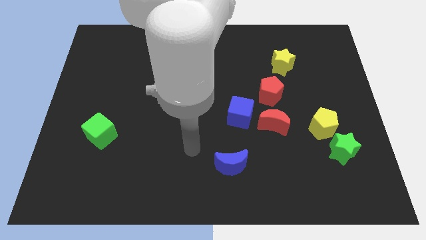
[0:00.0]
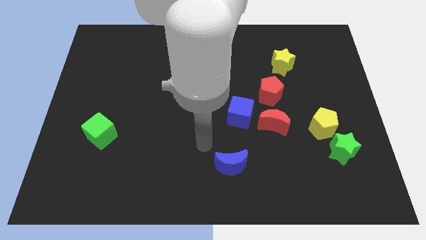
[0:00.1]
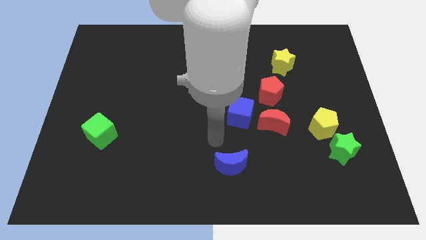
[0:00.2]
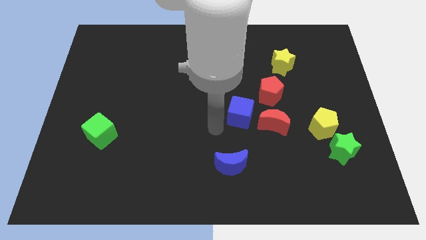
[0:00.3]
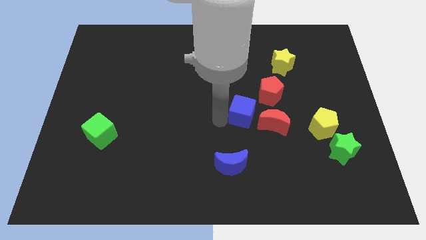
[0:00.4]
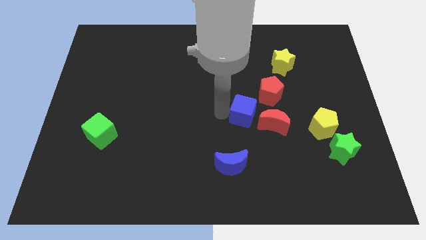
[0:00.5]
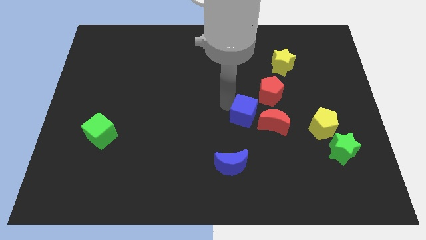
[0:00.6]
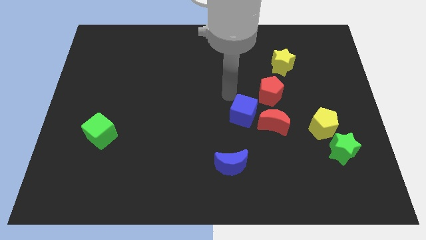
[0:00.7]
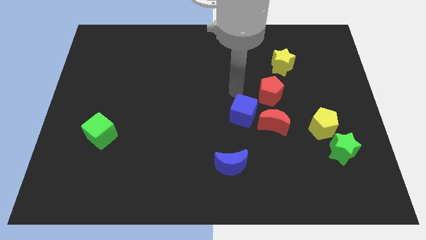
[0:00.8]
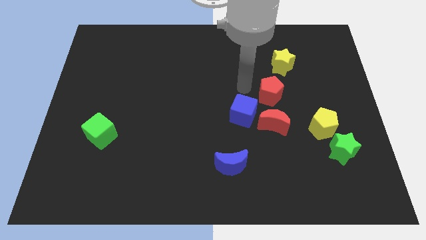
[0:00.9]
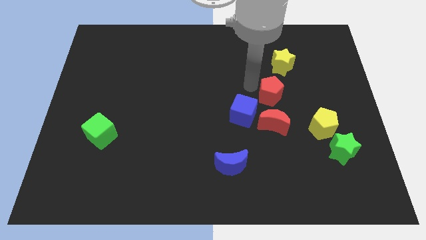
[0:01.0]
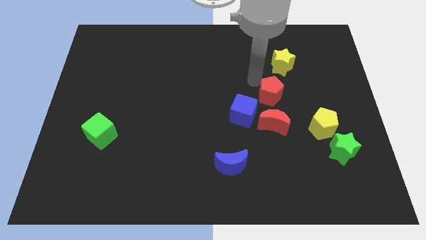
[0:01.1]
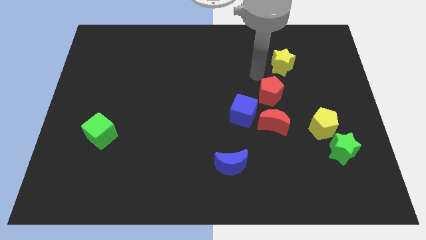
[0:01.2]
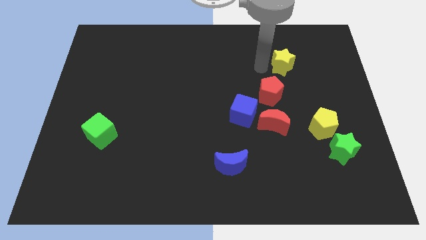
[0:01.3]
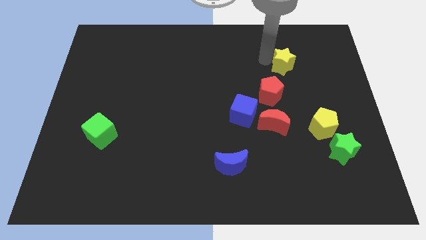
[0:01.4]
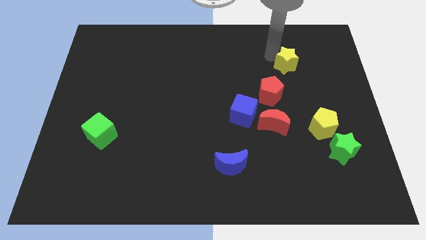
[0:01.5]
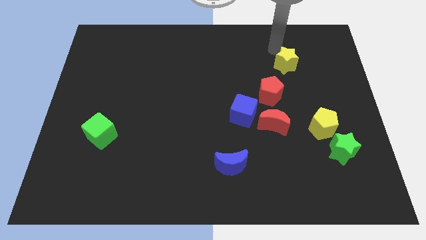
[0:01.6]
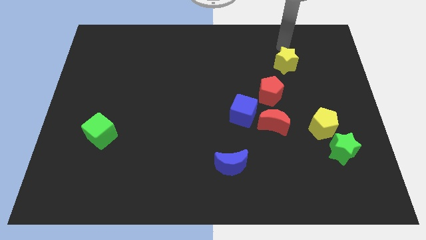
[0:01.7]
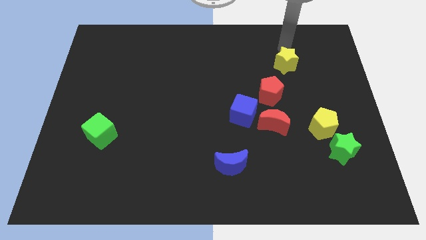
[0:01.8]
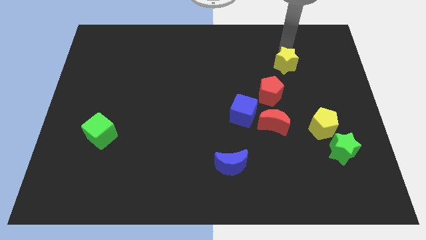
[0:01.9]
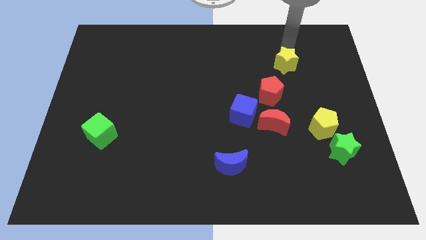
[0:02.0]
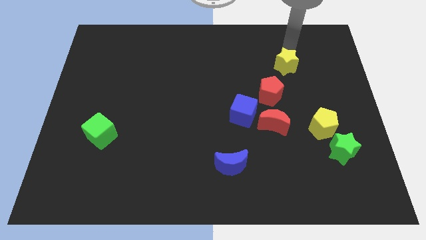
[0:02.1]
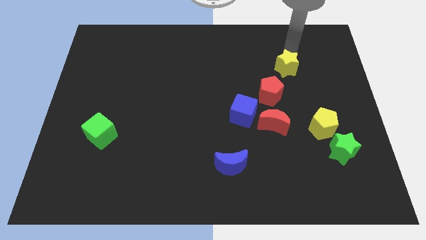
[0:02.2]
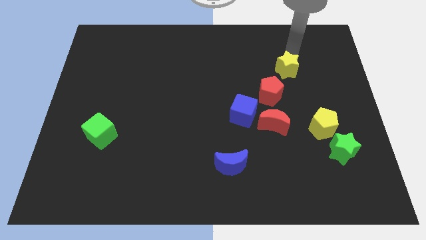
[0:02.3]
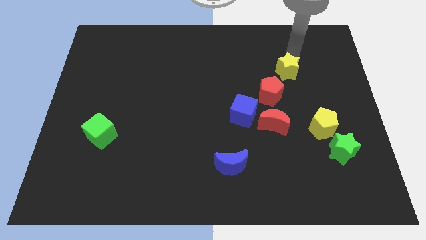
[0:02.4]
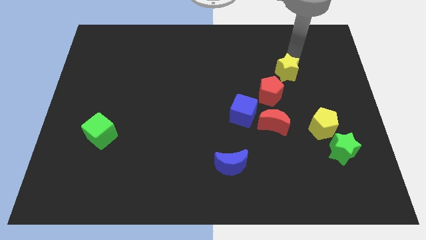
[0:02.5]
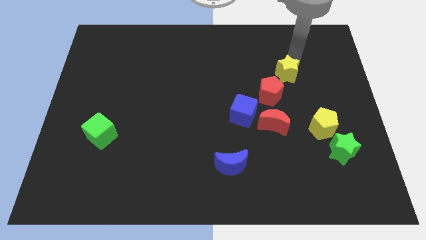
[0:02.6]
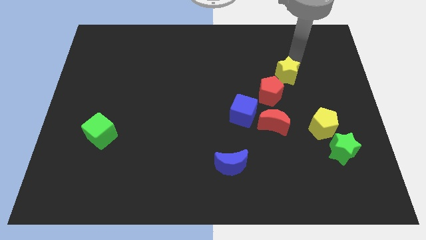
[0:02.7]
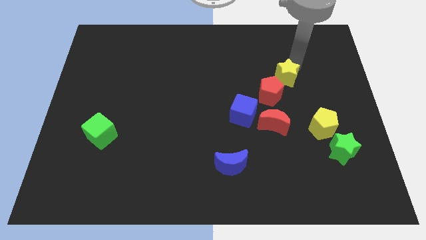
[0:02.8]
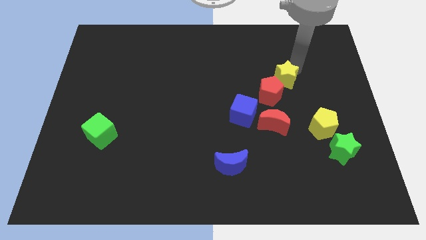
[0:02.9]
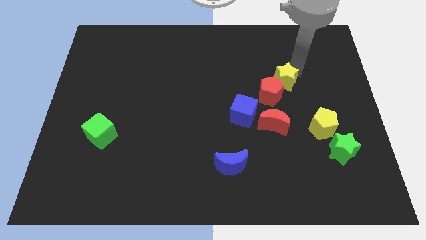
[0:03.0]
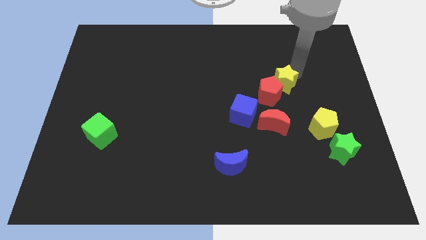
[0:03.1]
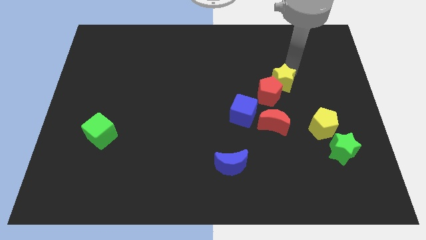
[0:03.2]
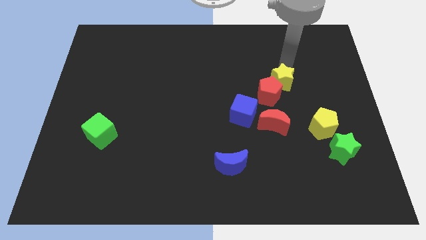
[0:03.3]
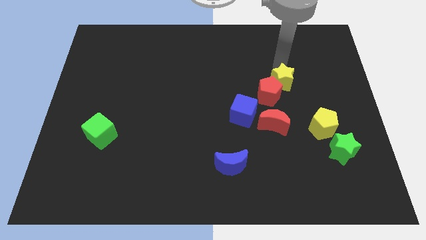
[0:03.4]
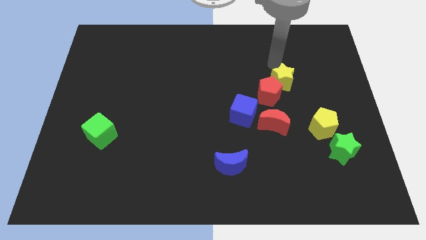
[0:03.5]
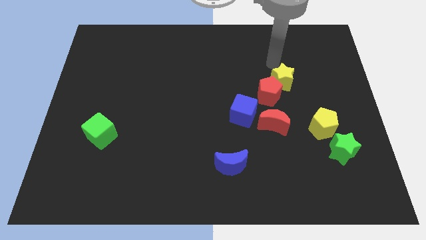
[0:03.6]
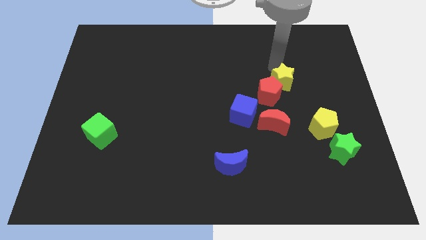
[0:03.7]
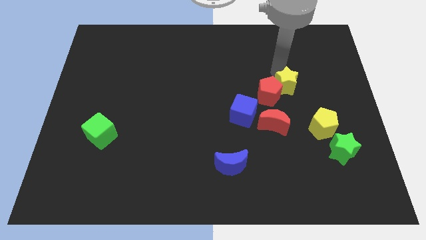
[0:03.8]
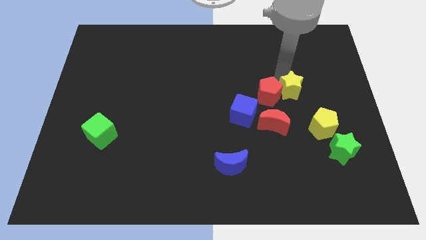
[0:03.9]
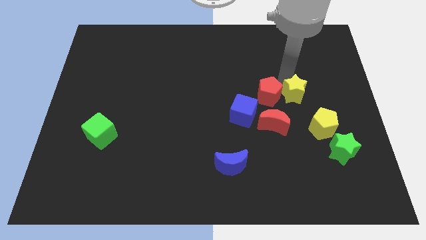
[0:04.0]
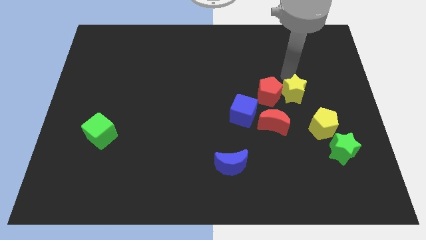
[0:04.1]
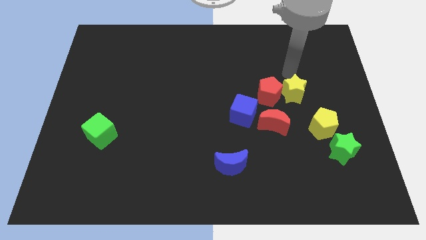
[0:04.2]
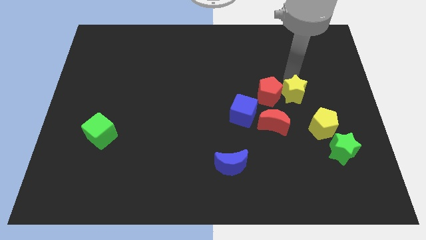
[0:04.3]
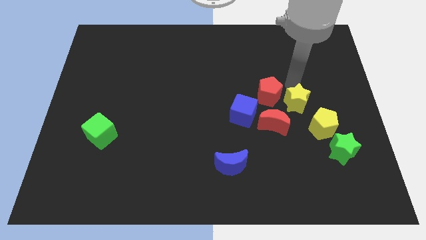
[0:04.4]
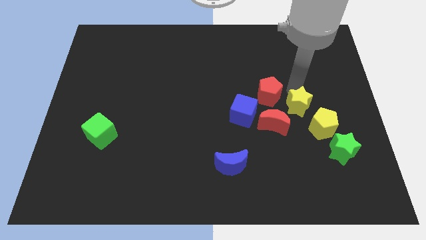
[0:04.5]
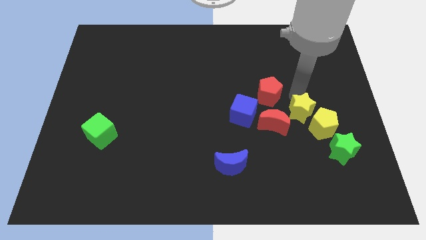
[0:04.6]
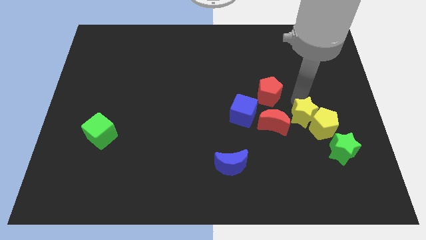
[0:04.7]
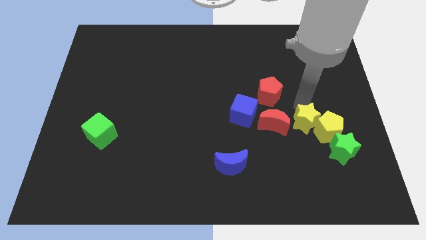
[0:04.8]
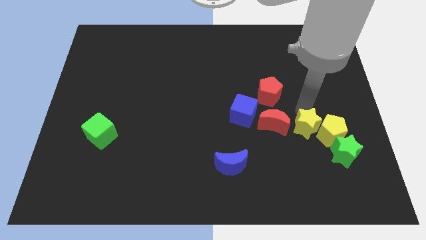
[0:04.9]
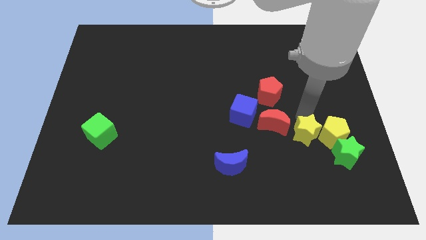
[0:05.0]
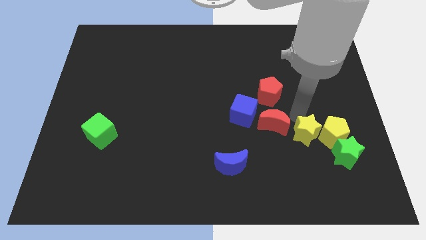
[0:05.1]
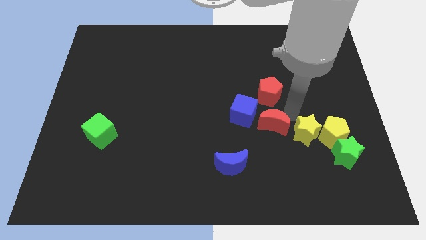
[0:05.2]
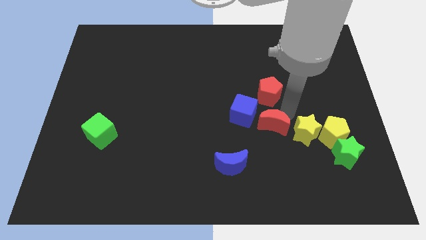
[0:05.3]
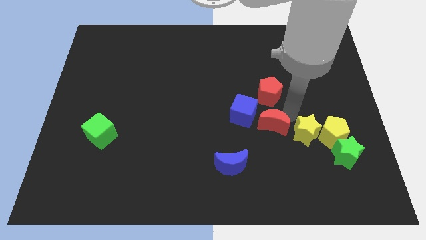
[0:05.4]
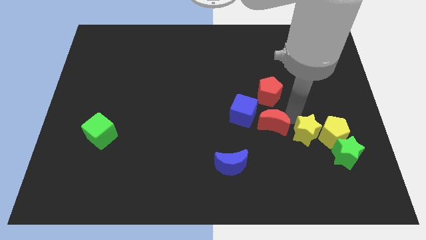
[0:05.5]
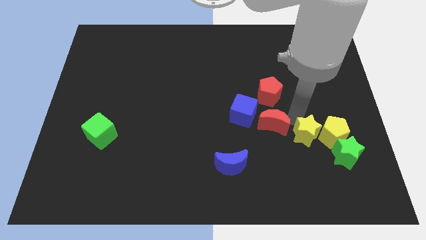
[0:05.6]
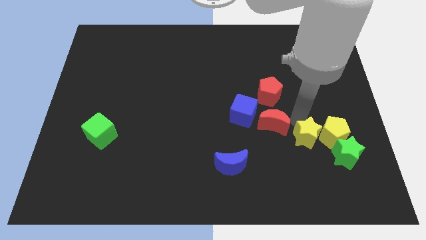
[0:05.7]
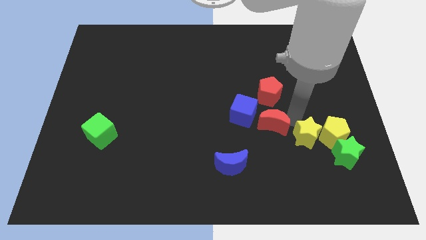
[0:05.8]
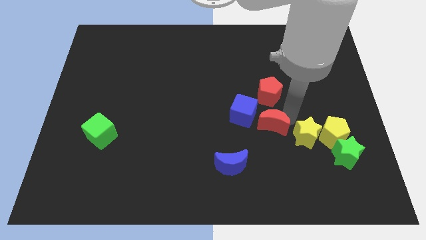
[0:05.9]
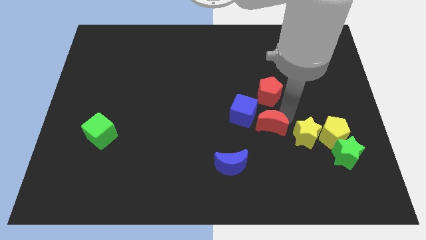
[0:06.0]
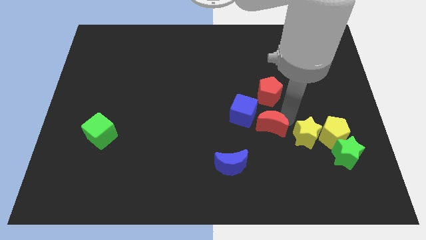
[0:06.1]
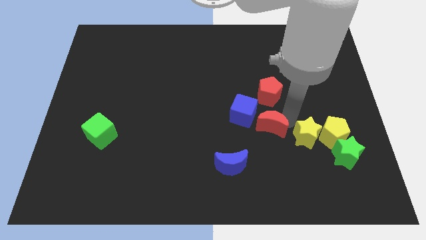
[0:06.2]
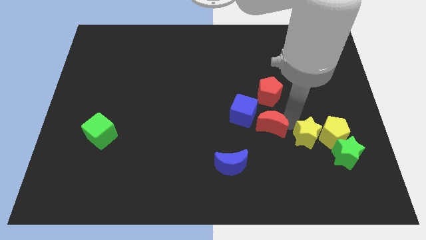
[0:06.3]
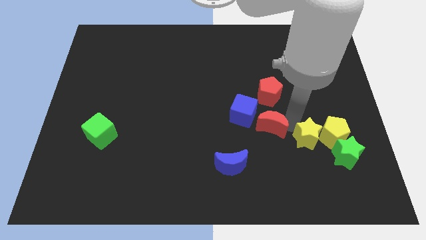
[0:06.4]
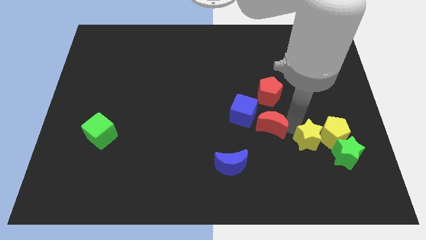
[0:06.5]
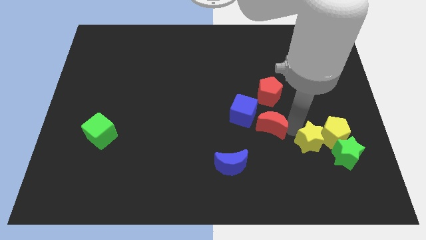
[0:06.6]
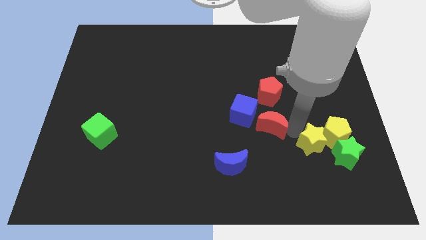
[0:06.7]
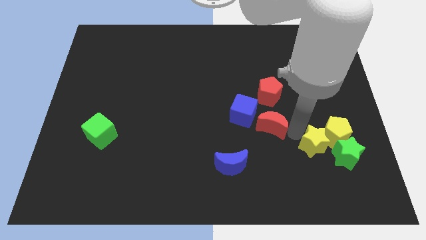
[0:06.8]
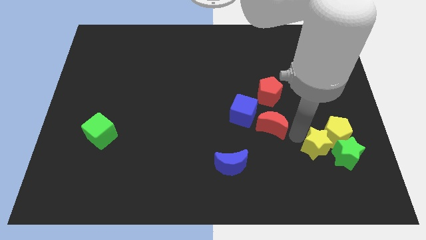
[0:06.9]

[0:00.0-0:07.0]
move the yellow star close to the green star
